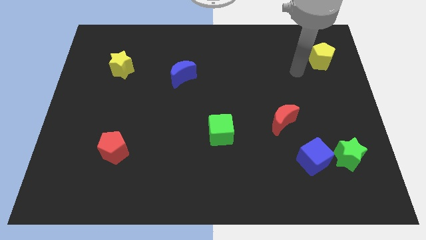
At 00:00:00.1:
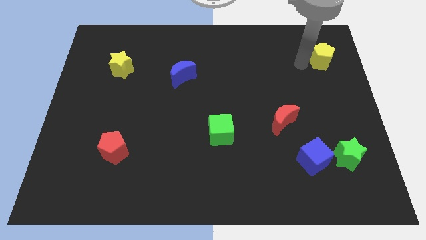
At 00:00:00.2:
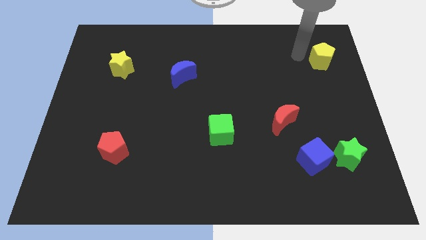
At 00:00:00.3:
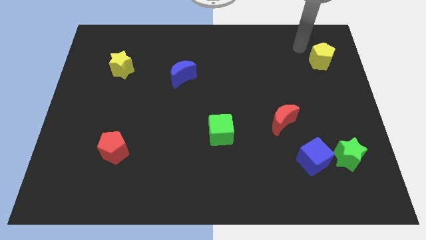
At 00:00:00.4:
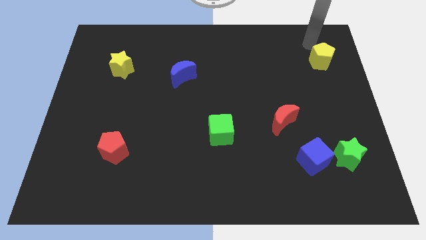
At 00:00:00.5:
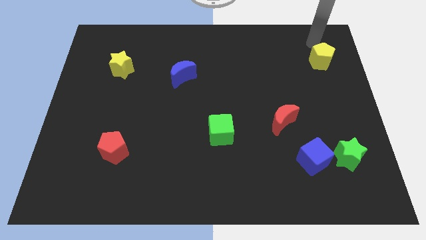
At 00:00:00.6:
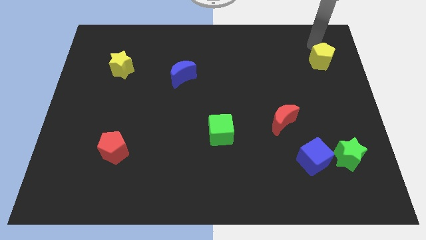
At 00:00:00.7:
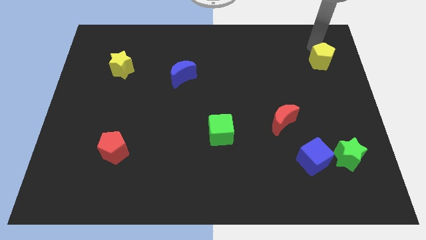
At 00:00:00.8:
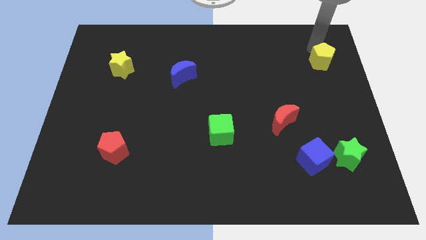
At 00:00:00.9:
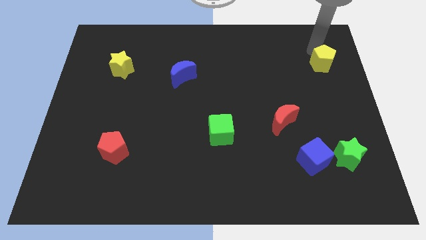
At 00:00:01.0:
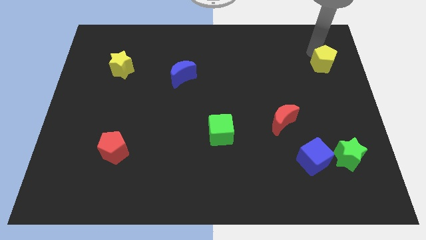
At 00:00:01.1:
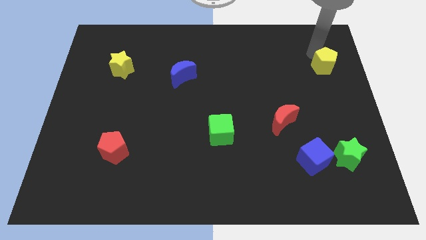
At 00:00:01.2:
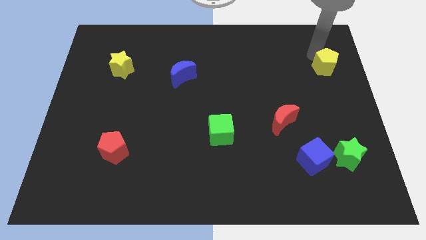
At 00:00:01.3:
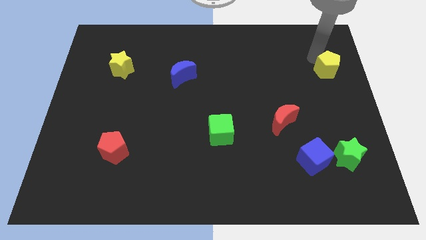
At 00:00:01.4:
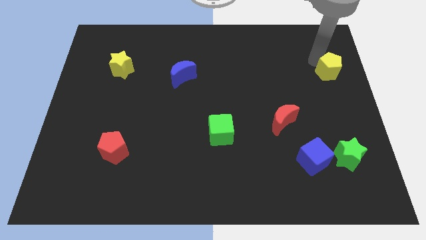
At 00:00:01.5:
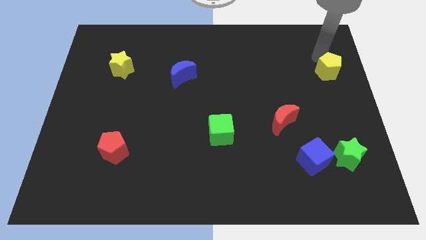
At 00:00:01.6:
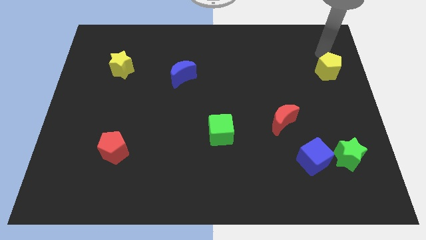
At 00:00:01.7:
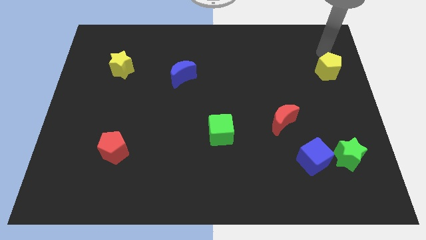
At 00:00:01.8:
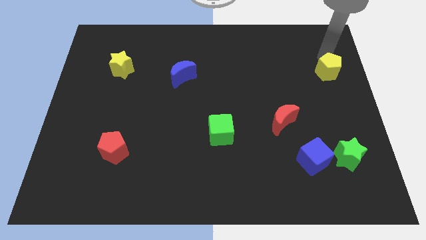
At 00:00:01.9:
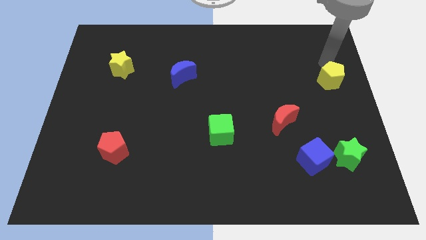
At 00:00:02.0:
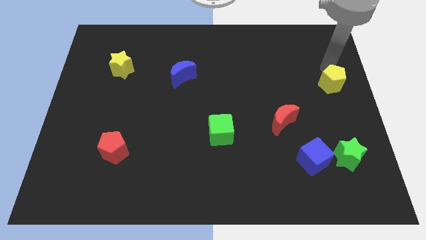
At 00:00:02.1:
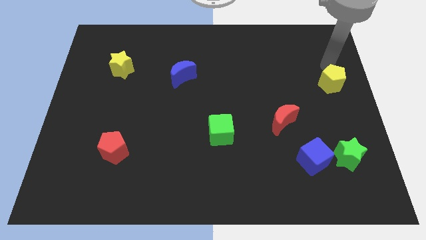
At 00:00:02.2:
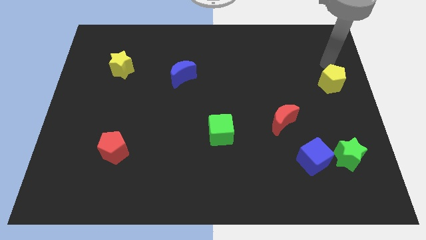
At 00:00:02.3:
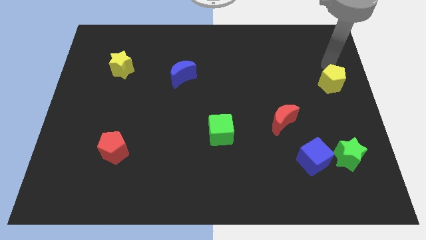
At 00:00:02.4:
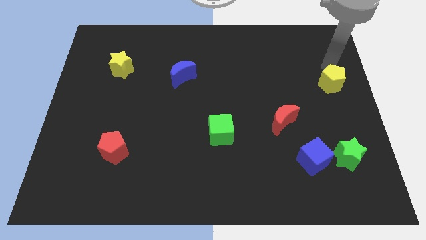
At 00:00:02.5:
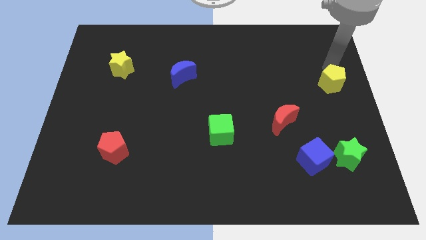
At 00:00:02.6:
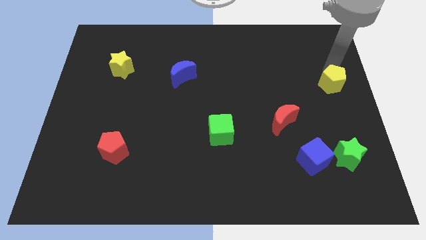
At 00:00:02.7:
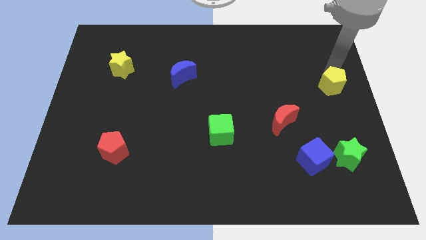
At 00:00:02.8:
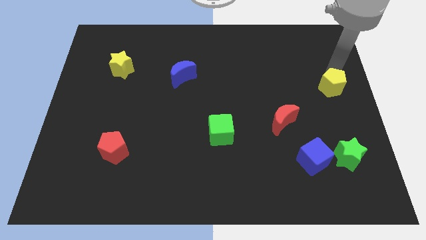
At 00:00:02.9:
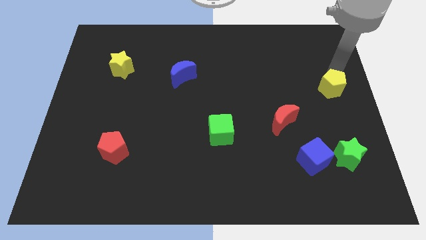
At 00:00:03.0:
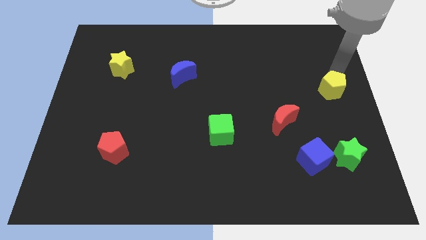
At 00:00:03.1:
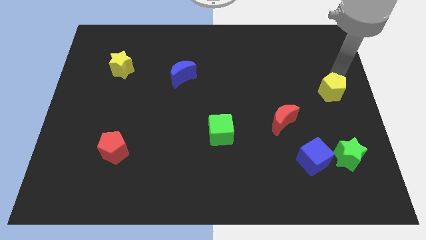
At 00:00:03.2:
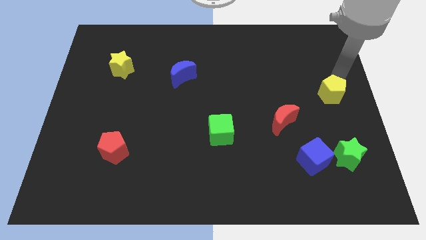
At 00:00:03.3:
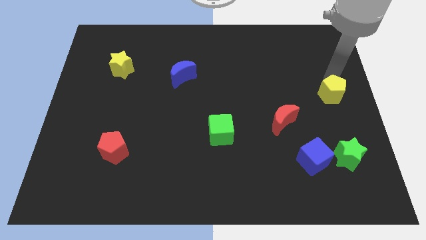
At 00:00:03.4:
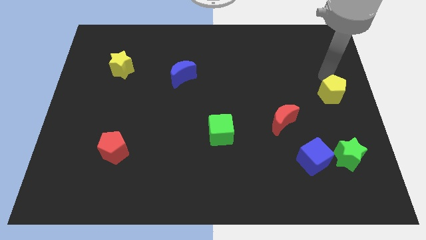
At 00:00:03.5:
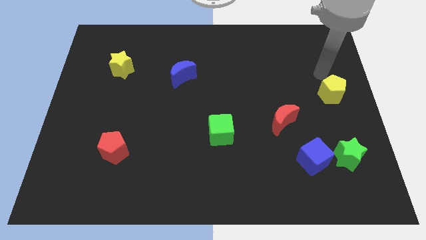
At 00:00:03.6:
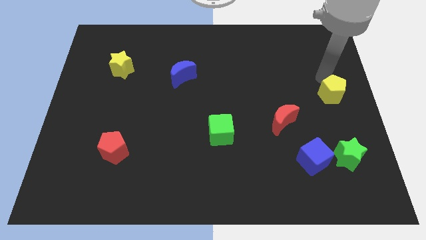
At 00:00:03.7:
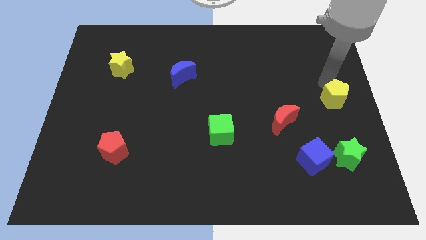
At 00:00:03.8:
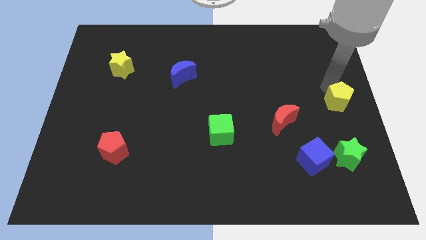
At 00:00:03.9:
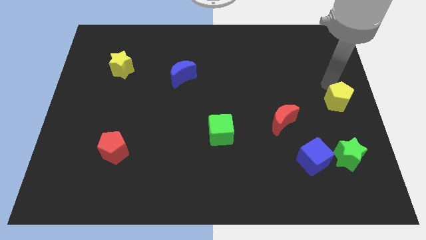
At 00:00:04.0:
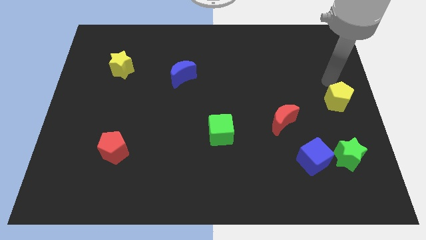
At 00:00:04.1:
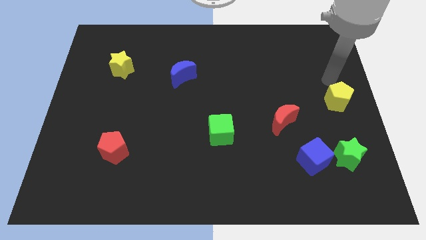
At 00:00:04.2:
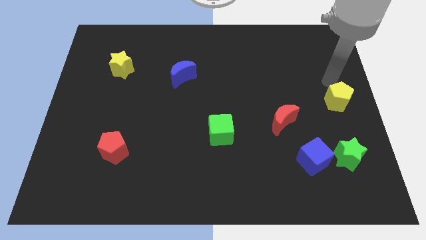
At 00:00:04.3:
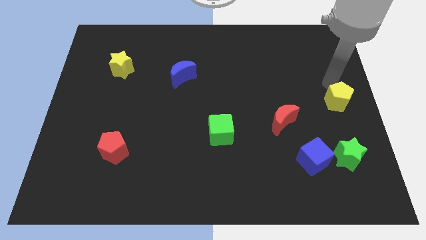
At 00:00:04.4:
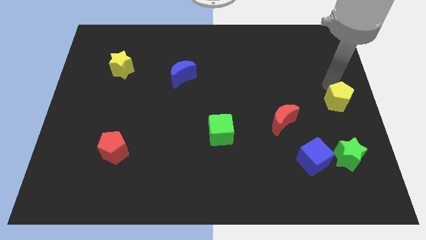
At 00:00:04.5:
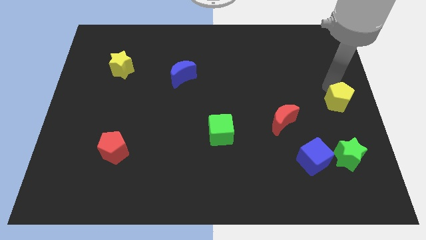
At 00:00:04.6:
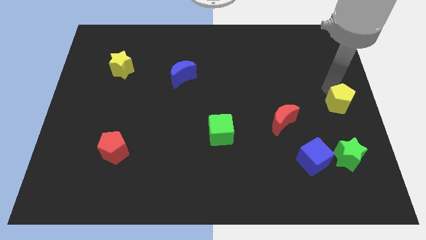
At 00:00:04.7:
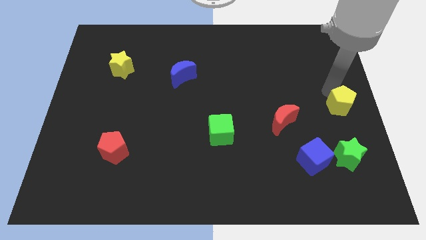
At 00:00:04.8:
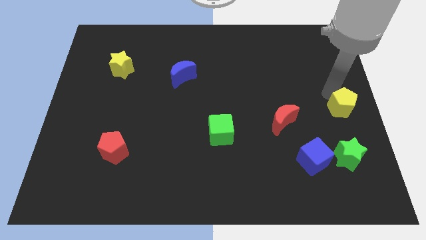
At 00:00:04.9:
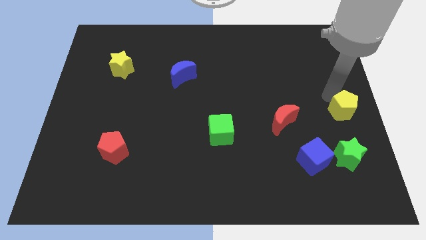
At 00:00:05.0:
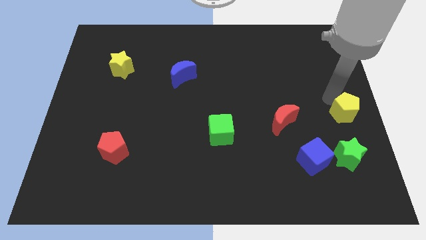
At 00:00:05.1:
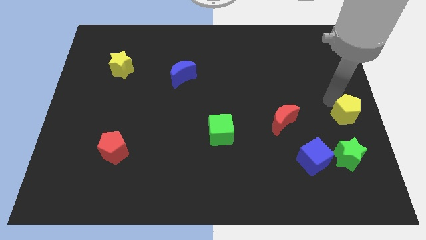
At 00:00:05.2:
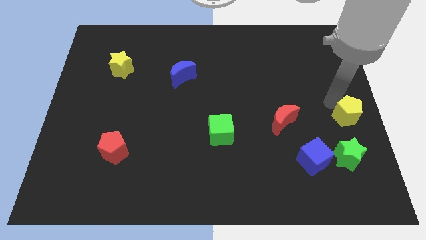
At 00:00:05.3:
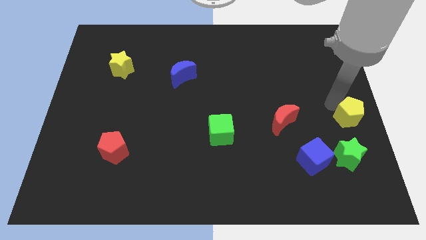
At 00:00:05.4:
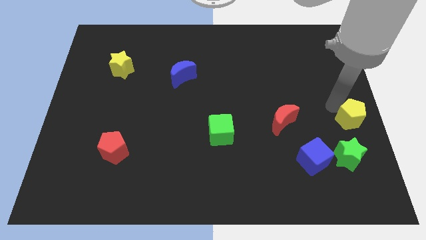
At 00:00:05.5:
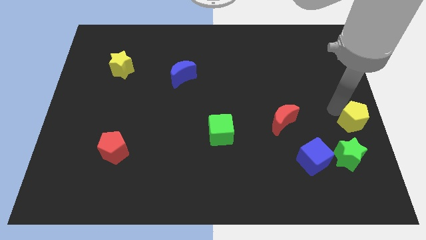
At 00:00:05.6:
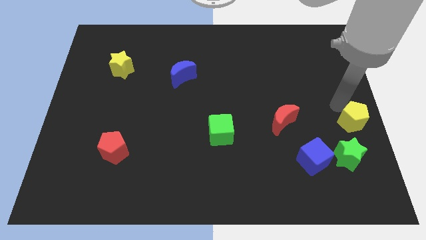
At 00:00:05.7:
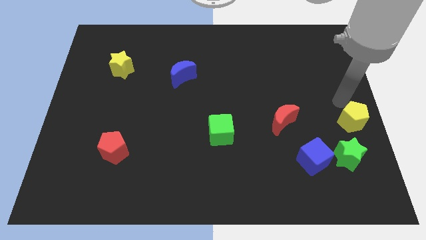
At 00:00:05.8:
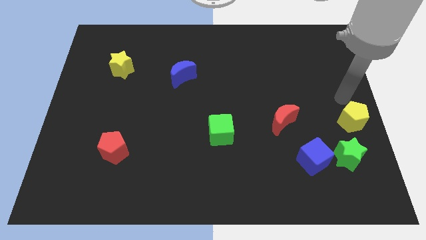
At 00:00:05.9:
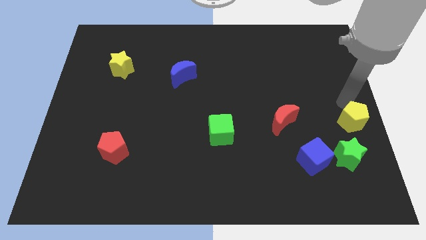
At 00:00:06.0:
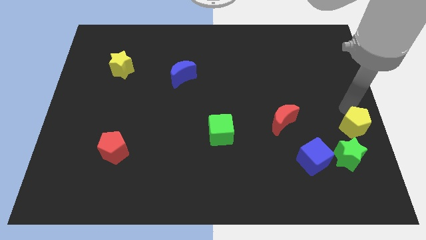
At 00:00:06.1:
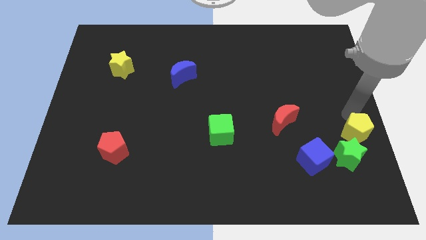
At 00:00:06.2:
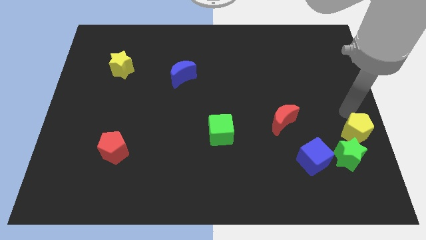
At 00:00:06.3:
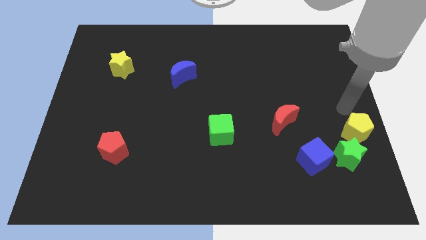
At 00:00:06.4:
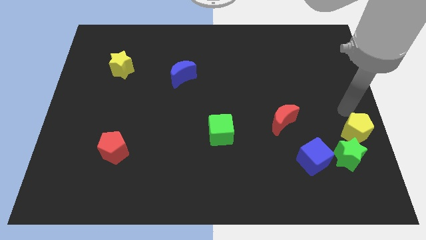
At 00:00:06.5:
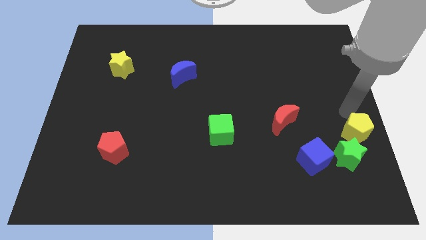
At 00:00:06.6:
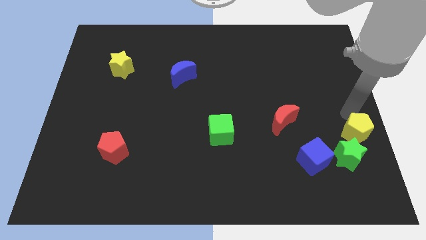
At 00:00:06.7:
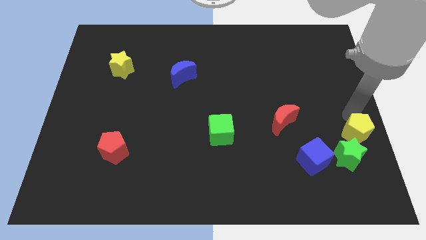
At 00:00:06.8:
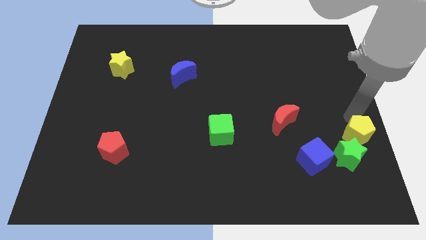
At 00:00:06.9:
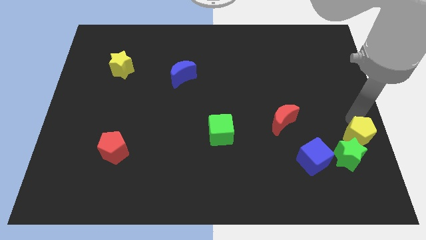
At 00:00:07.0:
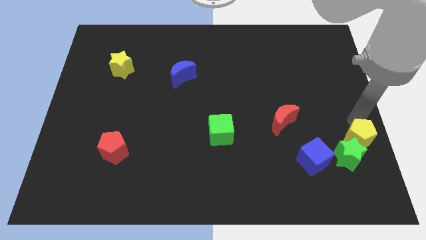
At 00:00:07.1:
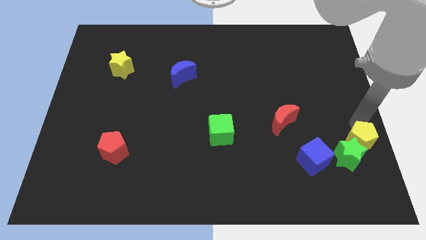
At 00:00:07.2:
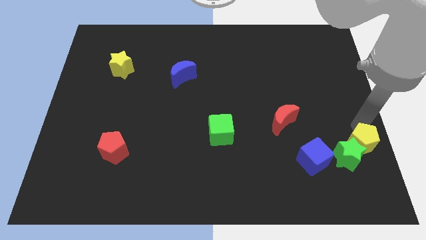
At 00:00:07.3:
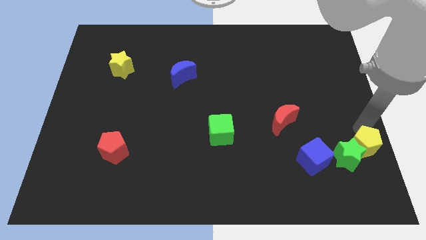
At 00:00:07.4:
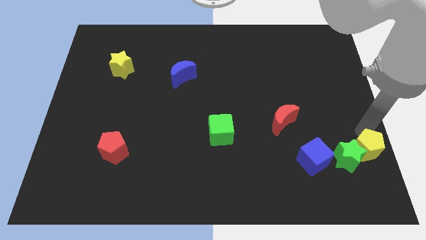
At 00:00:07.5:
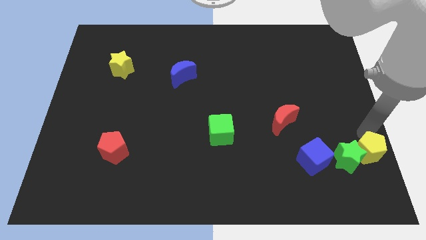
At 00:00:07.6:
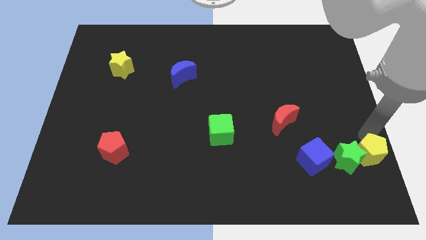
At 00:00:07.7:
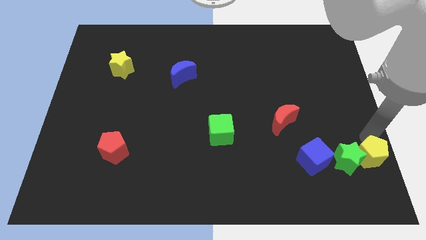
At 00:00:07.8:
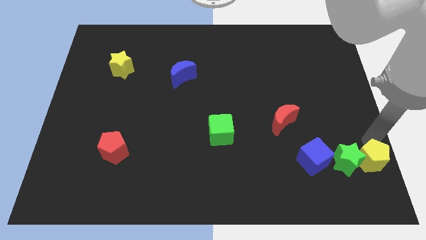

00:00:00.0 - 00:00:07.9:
push the yellow pentagon to the lower right corner
